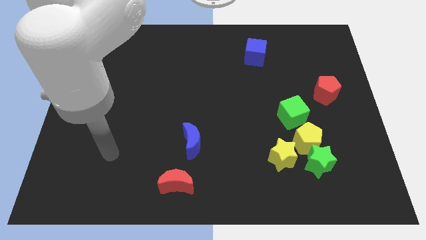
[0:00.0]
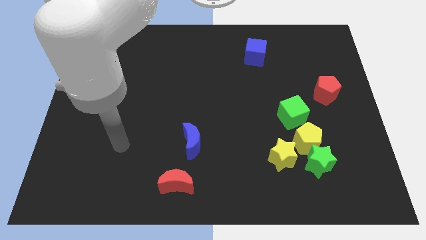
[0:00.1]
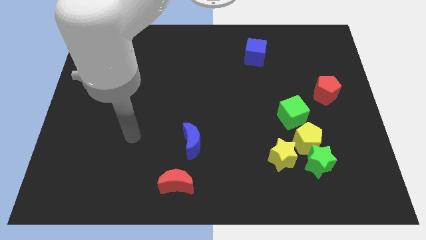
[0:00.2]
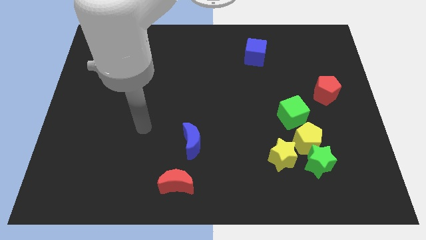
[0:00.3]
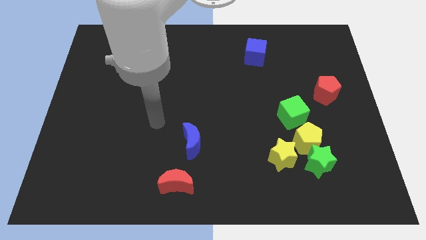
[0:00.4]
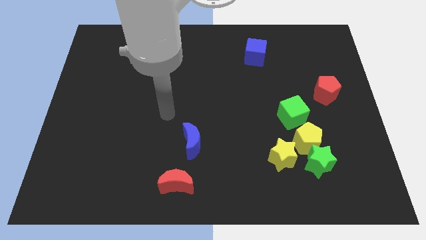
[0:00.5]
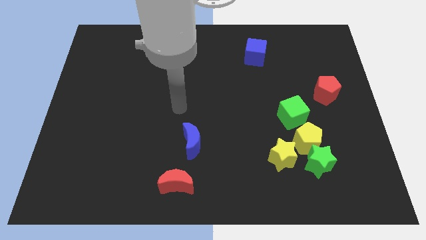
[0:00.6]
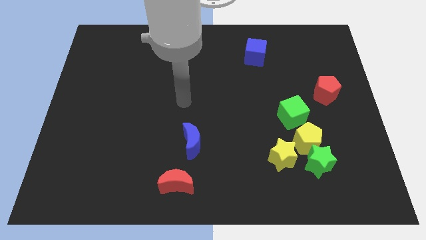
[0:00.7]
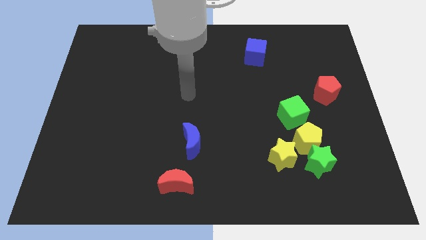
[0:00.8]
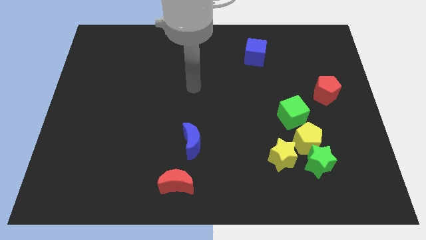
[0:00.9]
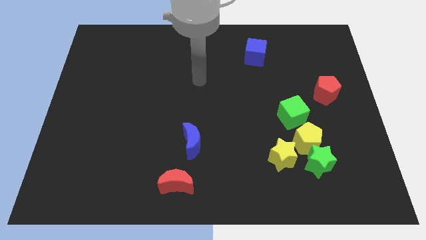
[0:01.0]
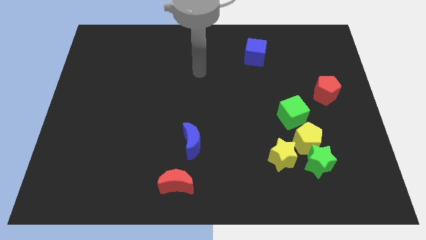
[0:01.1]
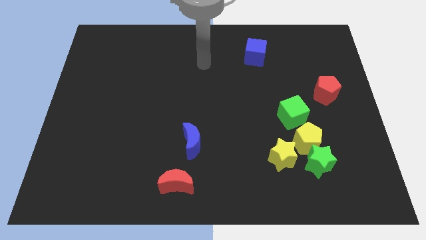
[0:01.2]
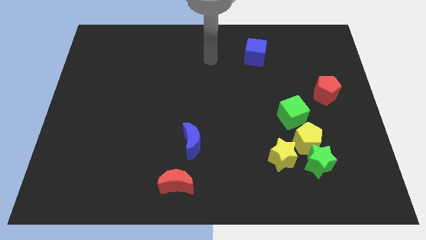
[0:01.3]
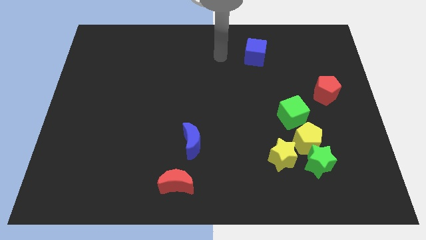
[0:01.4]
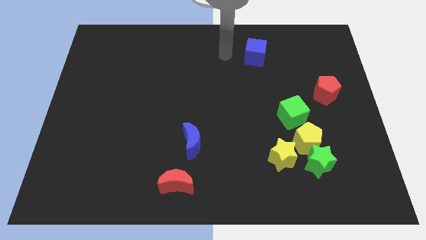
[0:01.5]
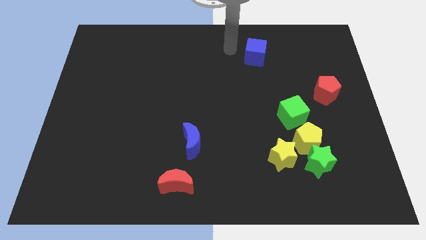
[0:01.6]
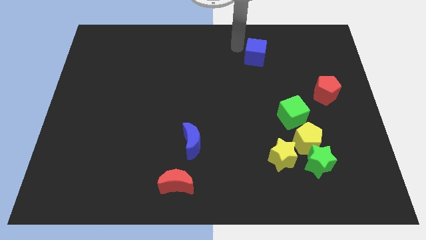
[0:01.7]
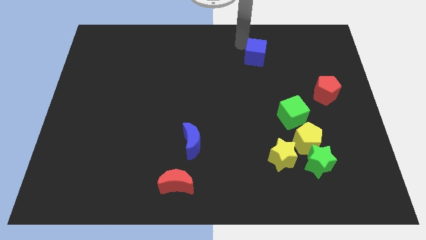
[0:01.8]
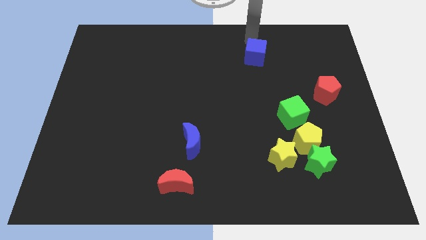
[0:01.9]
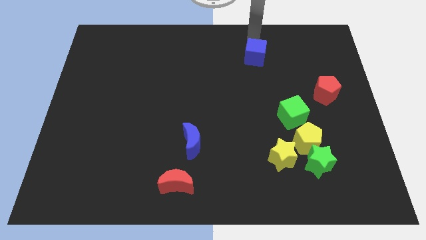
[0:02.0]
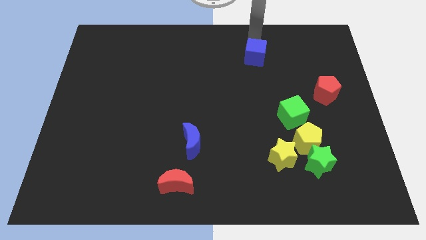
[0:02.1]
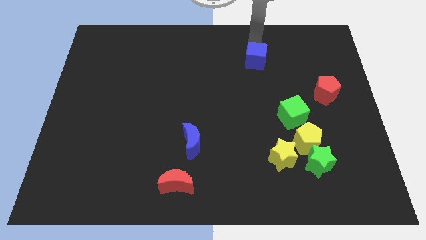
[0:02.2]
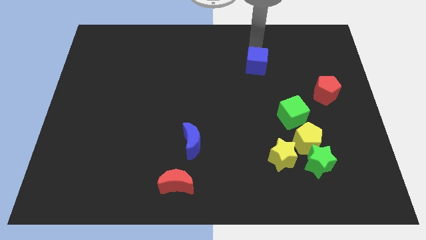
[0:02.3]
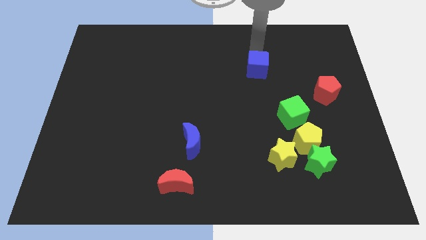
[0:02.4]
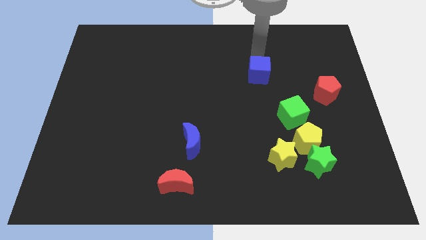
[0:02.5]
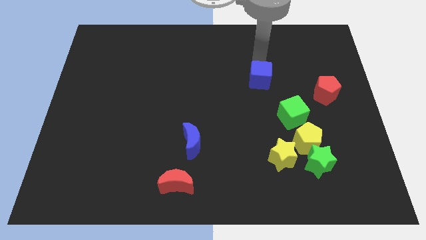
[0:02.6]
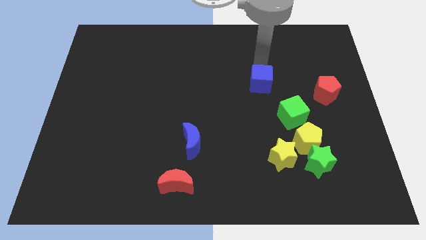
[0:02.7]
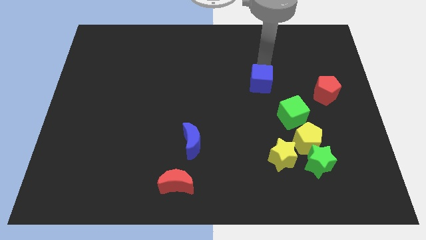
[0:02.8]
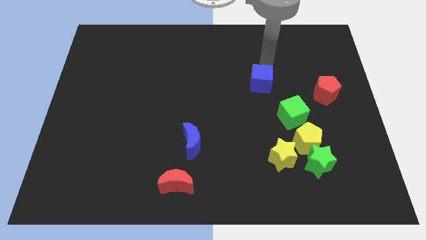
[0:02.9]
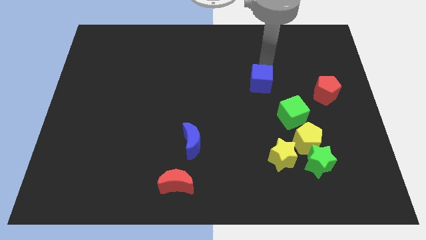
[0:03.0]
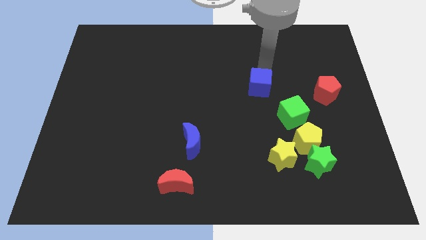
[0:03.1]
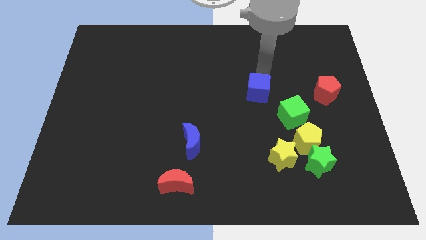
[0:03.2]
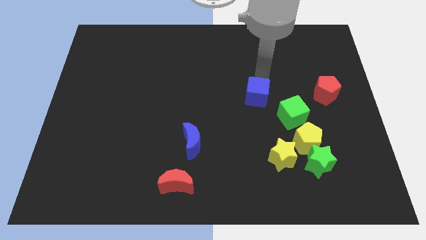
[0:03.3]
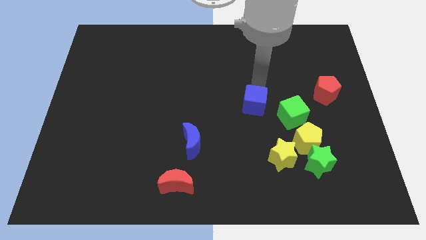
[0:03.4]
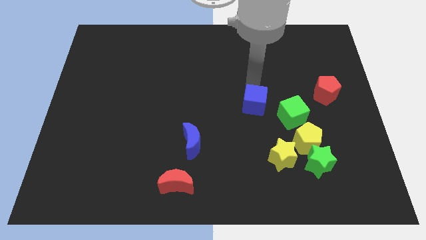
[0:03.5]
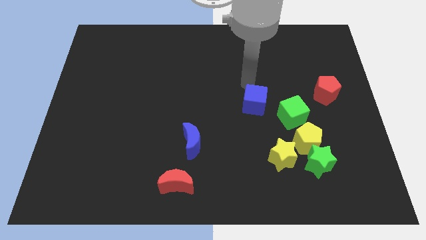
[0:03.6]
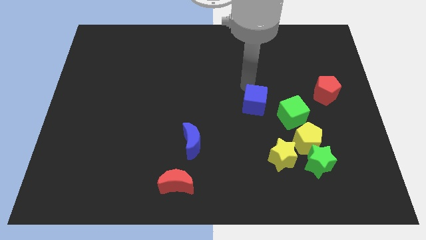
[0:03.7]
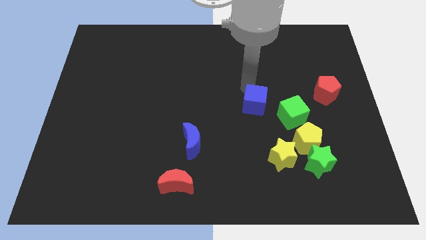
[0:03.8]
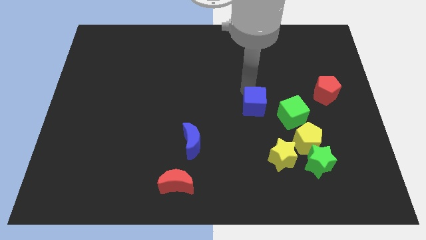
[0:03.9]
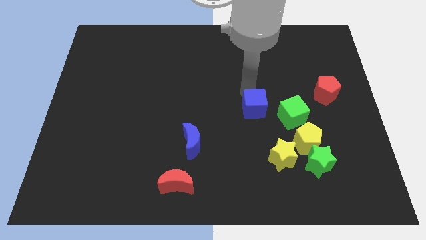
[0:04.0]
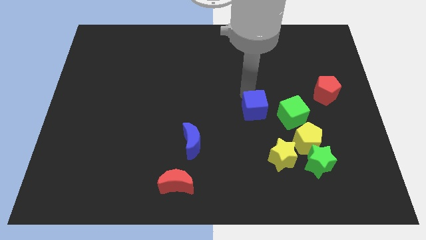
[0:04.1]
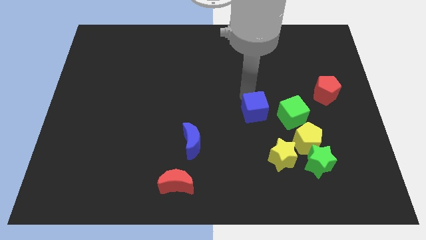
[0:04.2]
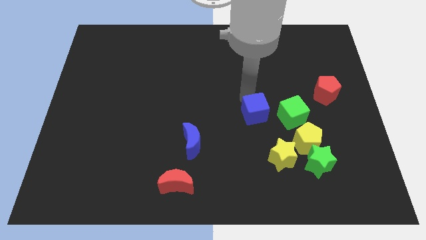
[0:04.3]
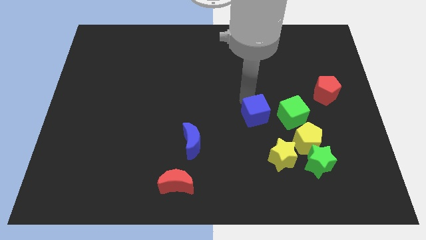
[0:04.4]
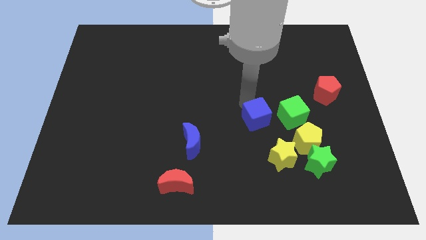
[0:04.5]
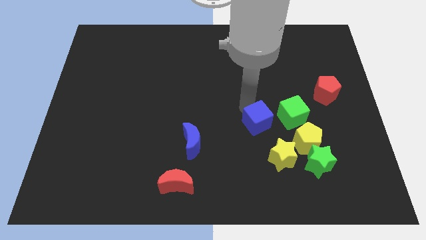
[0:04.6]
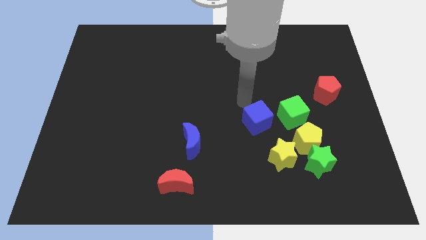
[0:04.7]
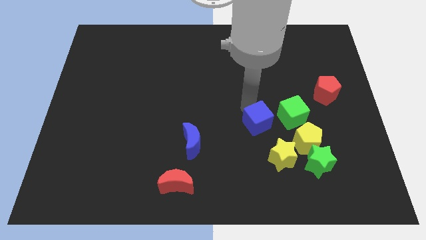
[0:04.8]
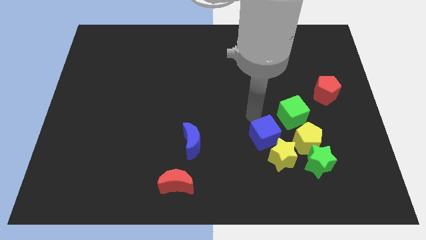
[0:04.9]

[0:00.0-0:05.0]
move the blue cube close to the yellow star

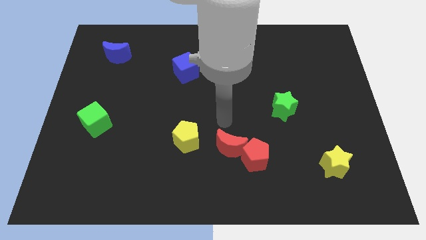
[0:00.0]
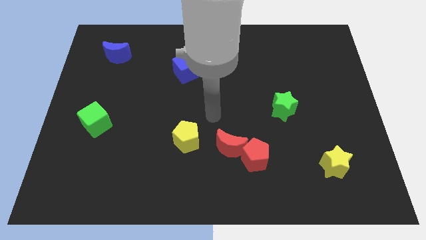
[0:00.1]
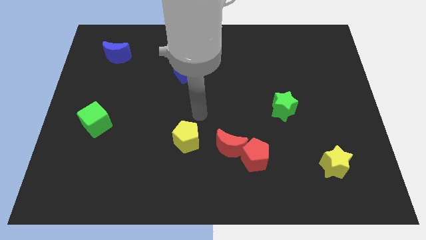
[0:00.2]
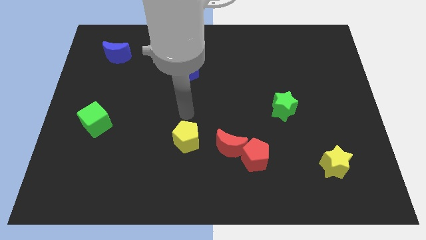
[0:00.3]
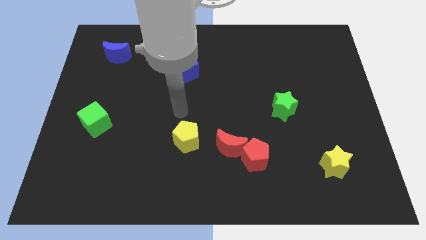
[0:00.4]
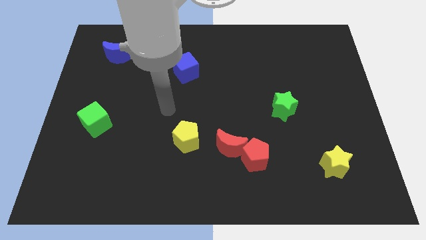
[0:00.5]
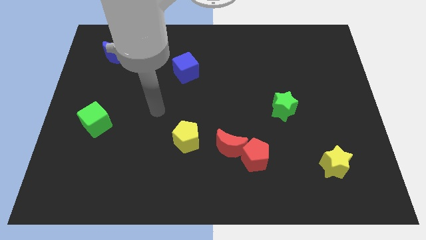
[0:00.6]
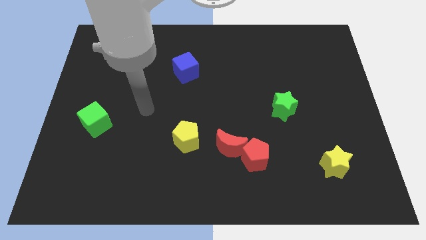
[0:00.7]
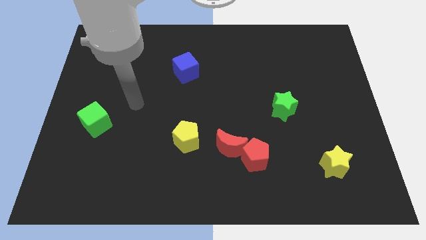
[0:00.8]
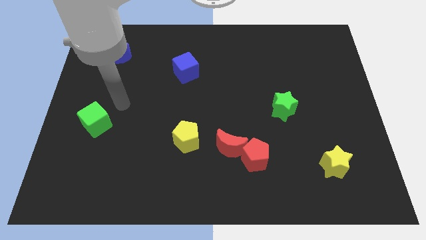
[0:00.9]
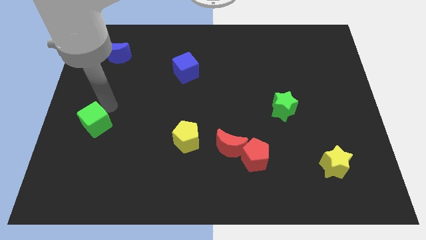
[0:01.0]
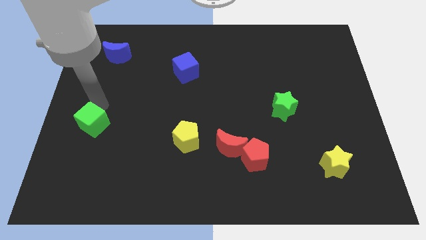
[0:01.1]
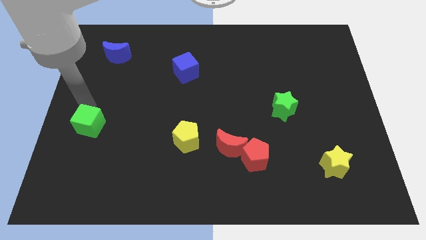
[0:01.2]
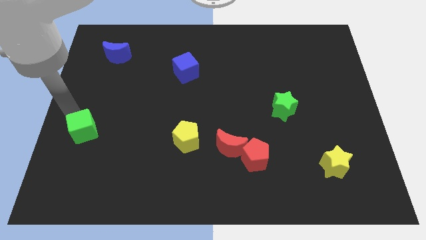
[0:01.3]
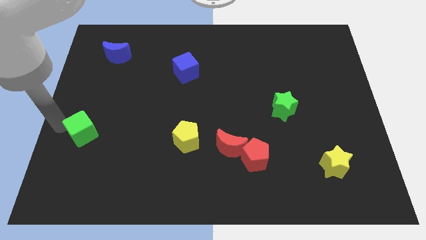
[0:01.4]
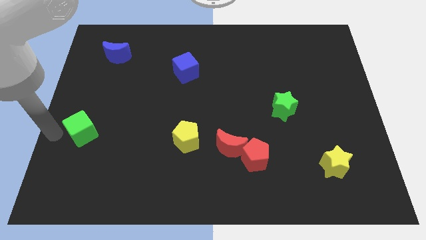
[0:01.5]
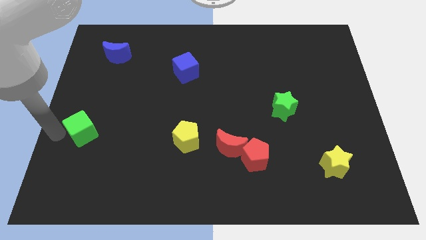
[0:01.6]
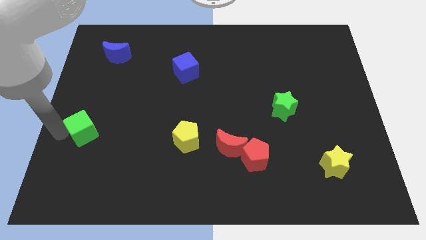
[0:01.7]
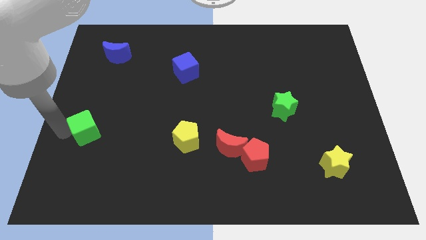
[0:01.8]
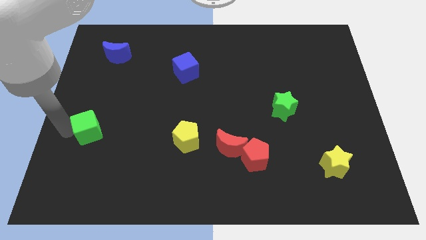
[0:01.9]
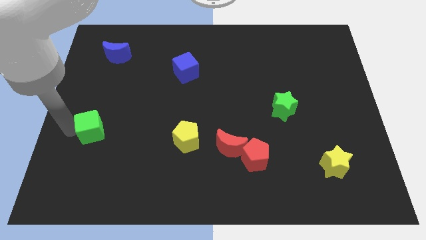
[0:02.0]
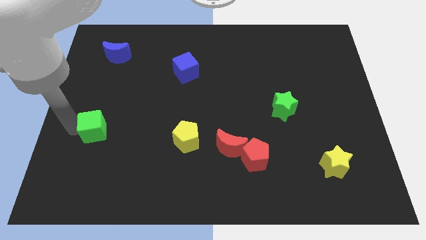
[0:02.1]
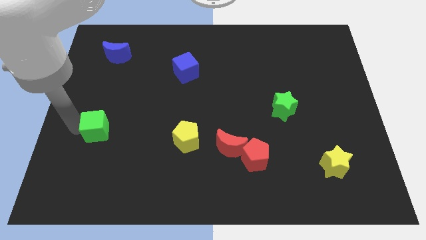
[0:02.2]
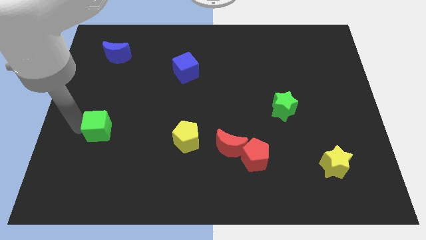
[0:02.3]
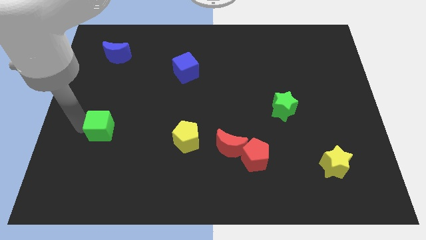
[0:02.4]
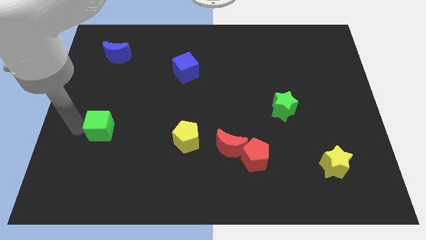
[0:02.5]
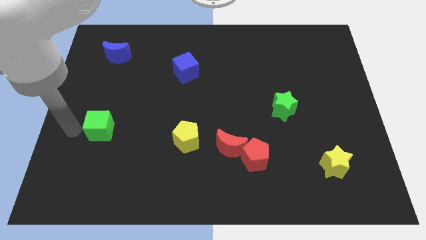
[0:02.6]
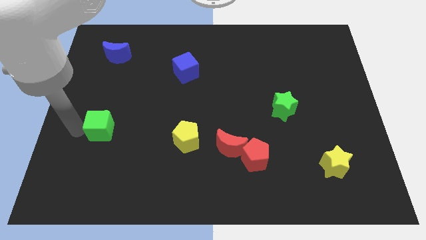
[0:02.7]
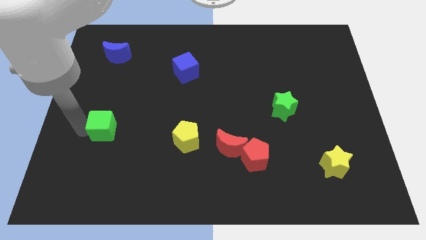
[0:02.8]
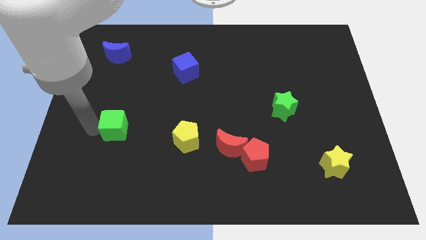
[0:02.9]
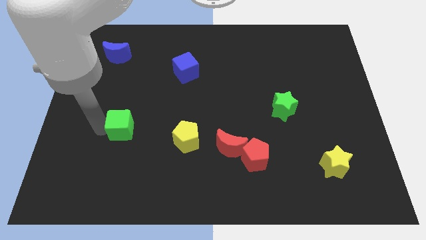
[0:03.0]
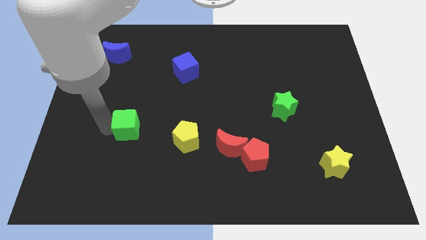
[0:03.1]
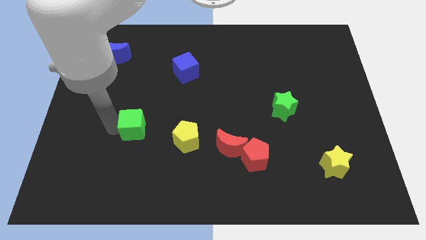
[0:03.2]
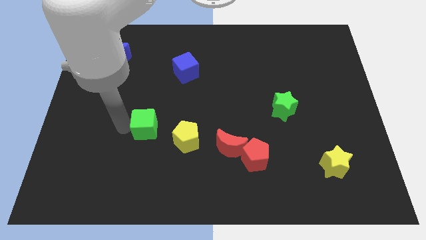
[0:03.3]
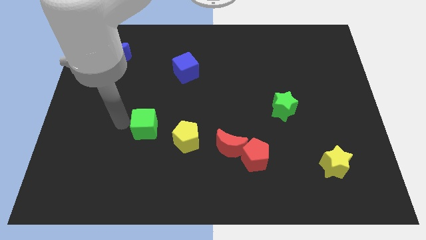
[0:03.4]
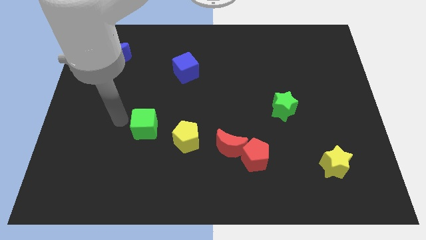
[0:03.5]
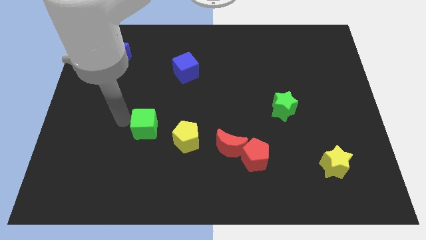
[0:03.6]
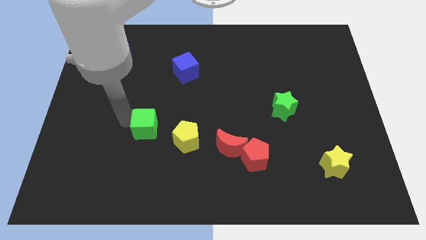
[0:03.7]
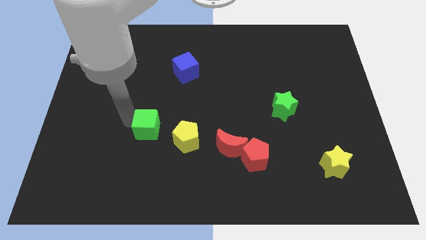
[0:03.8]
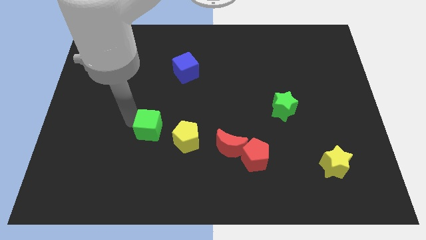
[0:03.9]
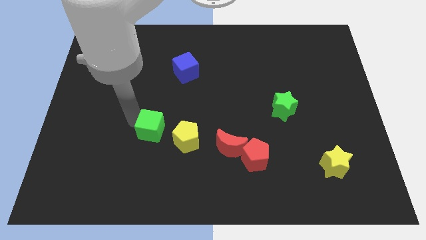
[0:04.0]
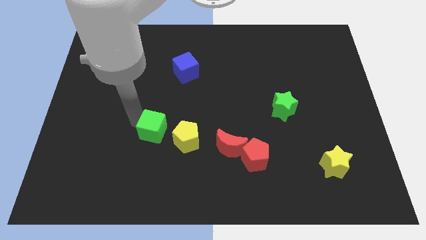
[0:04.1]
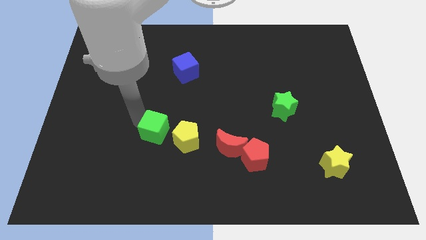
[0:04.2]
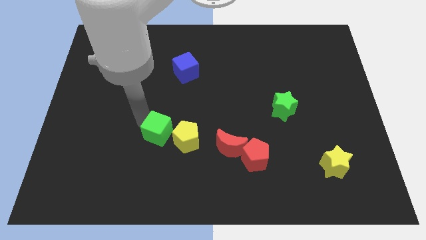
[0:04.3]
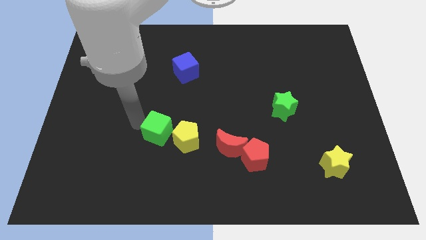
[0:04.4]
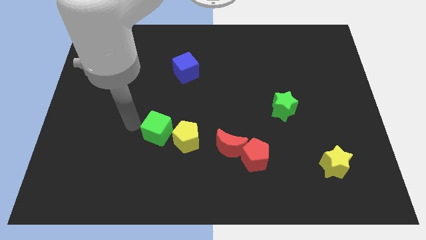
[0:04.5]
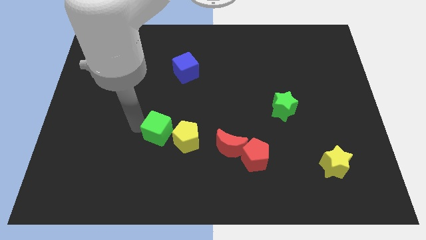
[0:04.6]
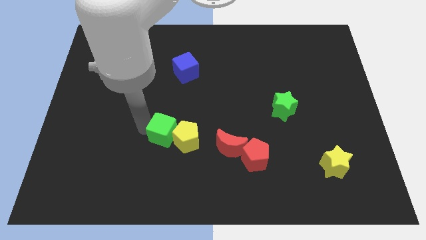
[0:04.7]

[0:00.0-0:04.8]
slide the green cube towards the yellow pentagon
